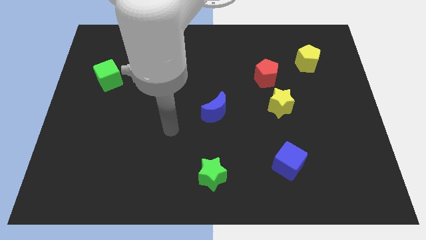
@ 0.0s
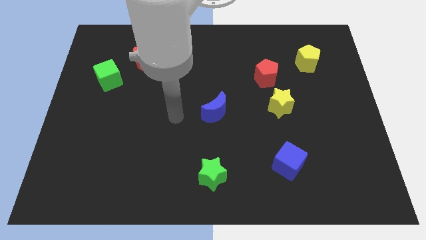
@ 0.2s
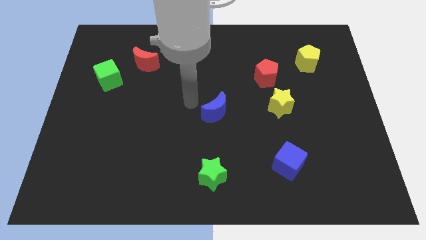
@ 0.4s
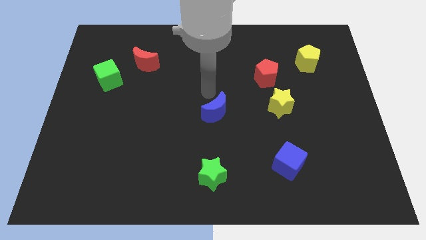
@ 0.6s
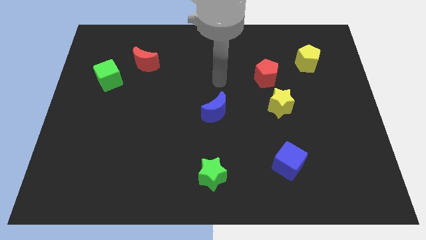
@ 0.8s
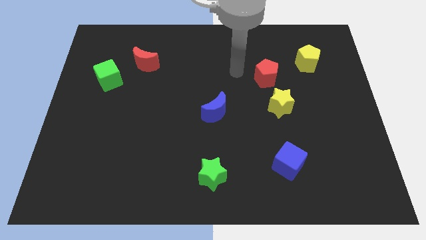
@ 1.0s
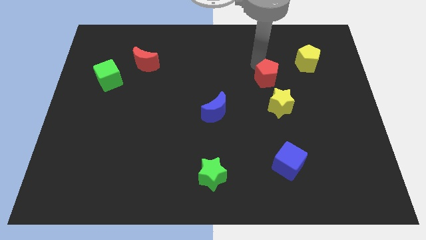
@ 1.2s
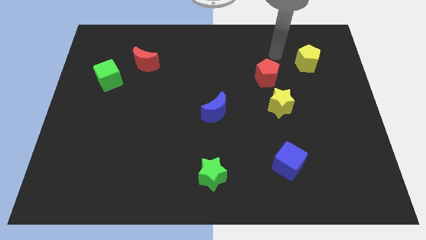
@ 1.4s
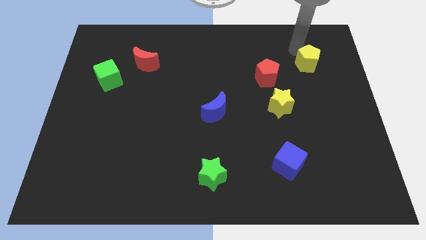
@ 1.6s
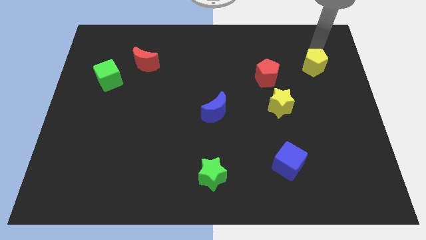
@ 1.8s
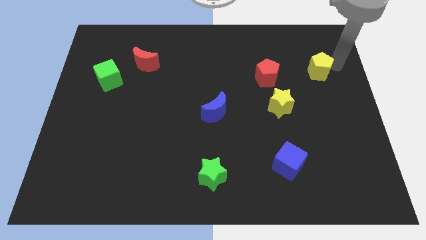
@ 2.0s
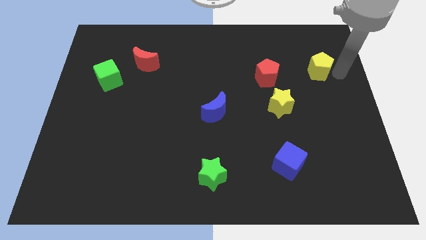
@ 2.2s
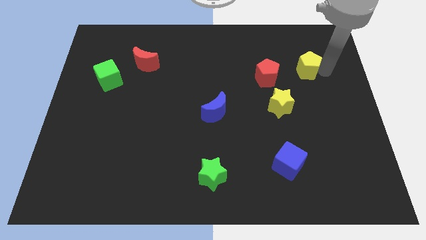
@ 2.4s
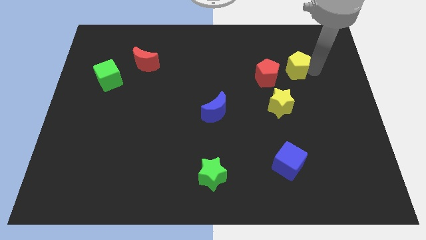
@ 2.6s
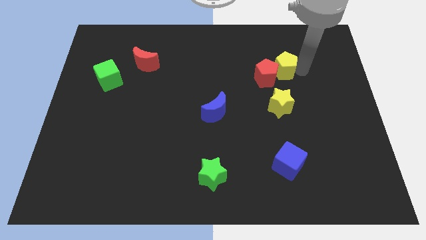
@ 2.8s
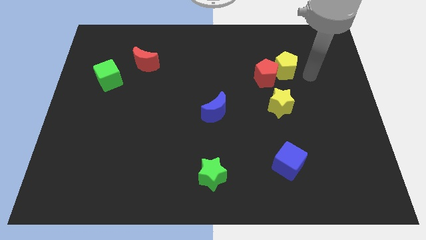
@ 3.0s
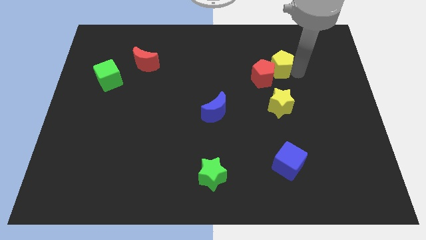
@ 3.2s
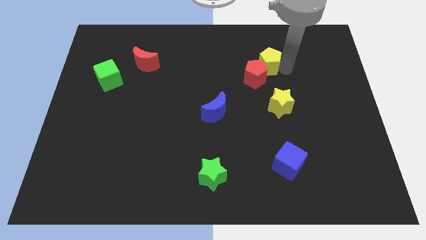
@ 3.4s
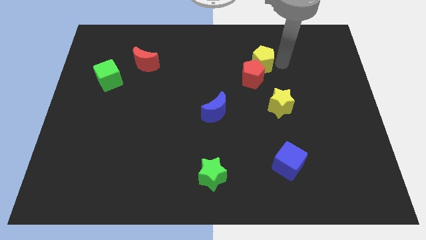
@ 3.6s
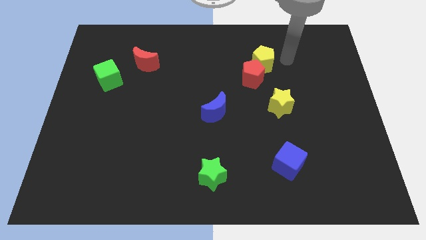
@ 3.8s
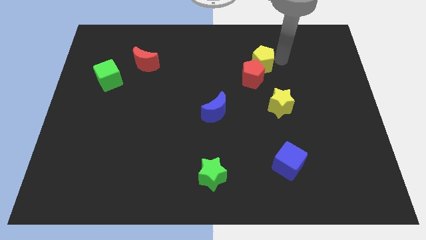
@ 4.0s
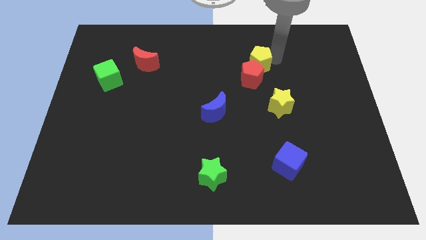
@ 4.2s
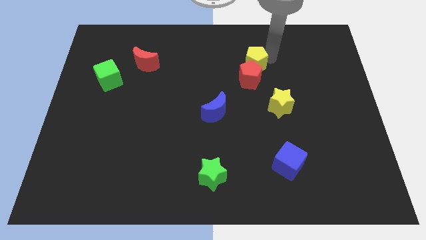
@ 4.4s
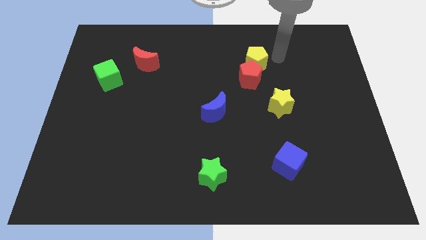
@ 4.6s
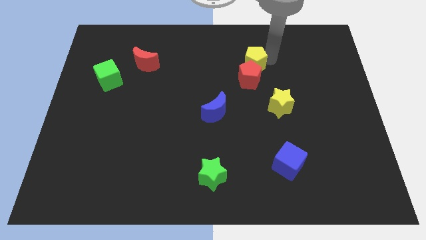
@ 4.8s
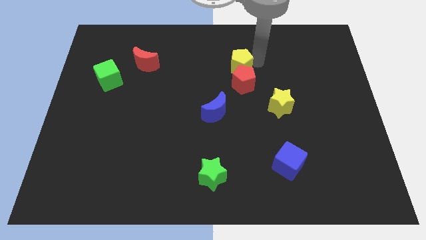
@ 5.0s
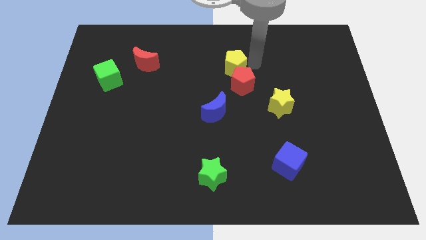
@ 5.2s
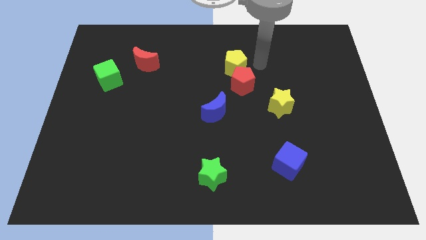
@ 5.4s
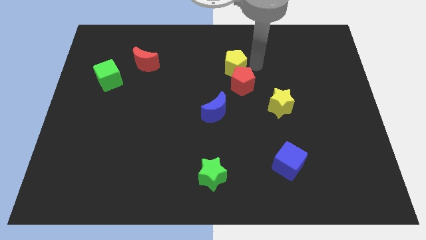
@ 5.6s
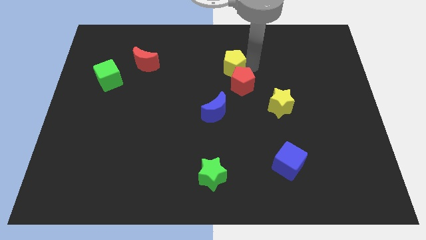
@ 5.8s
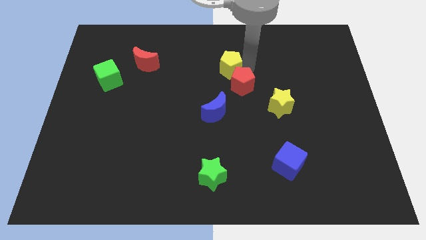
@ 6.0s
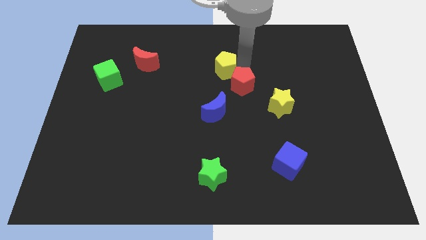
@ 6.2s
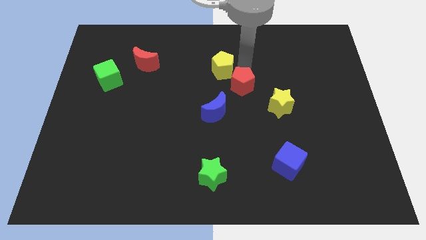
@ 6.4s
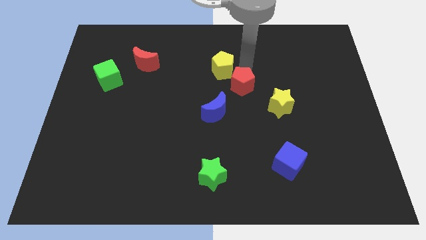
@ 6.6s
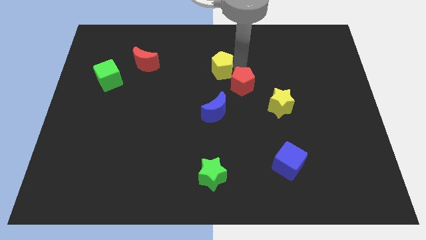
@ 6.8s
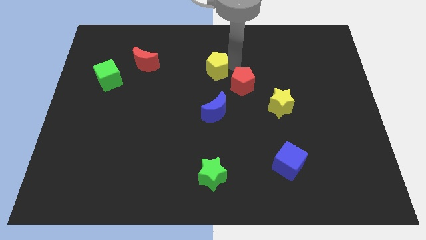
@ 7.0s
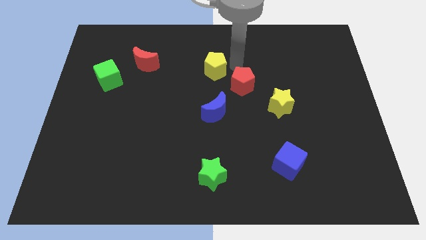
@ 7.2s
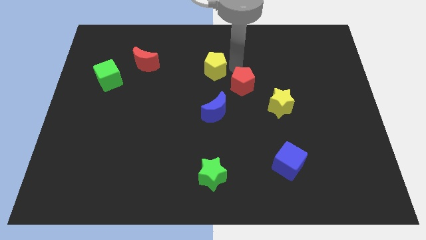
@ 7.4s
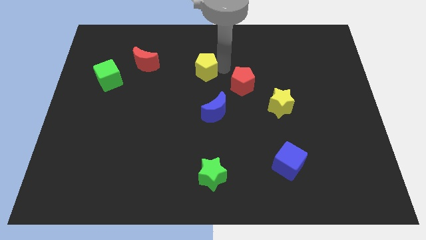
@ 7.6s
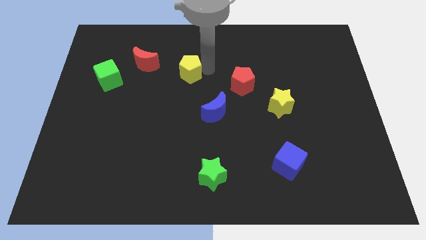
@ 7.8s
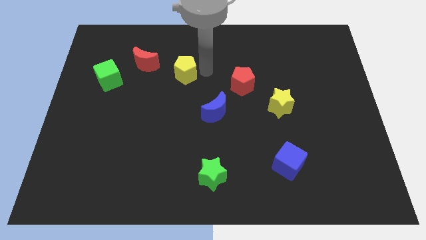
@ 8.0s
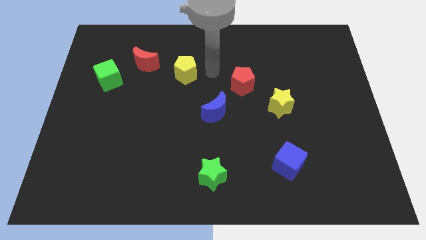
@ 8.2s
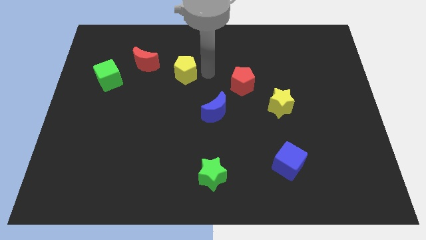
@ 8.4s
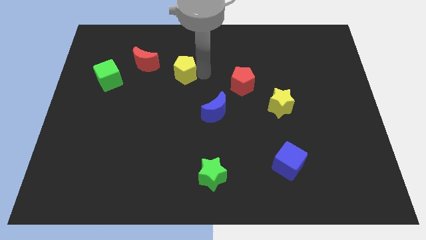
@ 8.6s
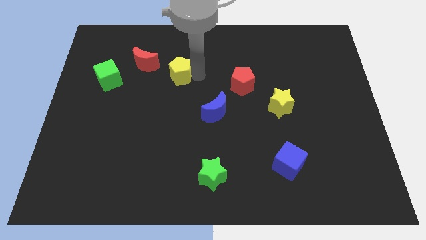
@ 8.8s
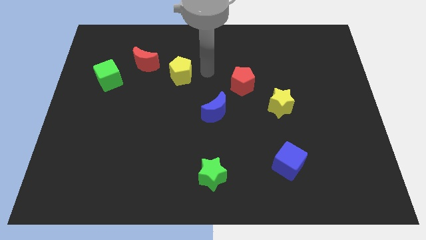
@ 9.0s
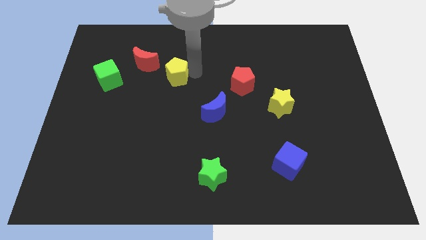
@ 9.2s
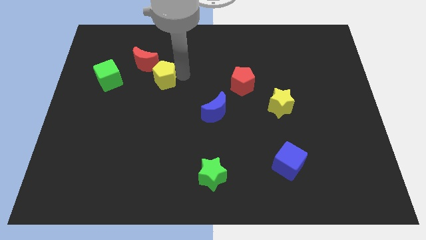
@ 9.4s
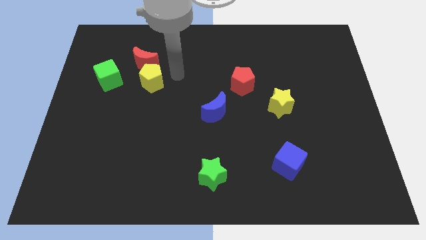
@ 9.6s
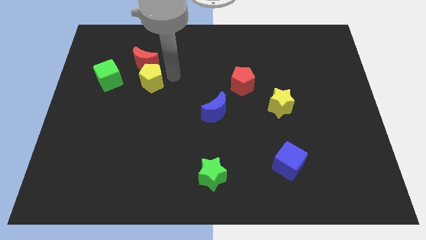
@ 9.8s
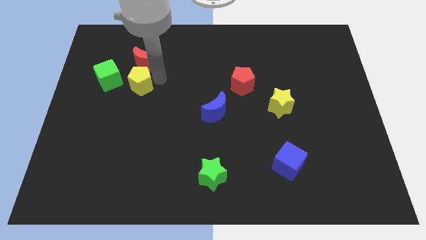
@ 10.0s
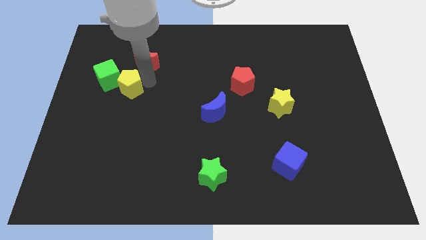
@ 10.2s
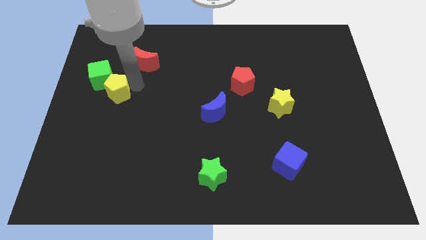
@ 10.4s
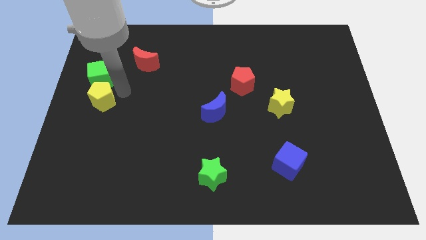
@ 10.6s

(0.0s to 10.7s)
put the yellow pentagon to the center left
